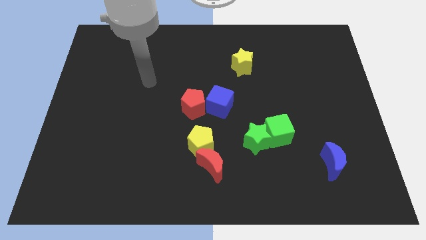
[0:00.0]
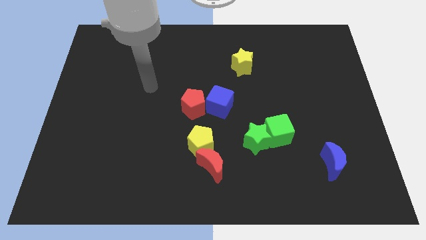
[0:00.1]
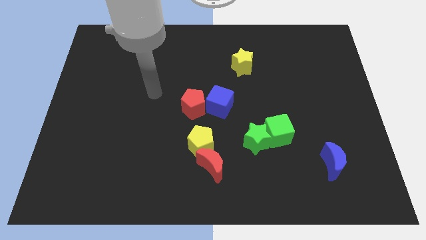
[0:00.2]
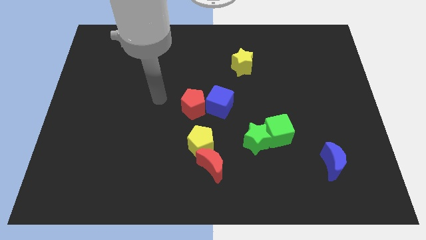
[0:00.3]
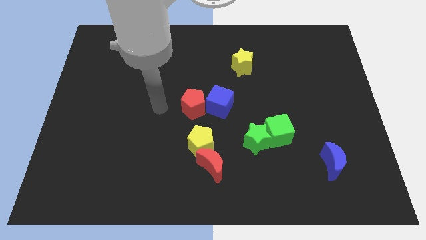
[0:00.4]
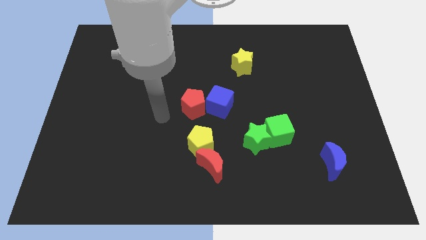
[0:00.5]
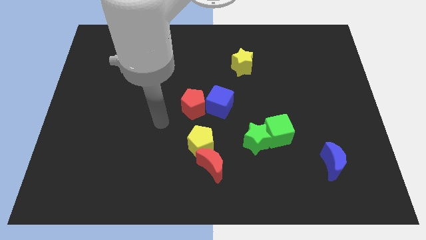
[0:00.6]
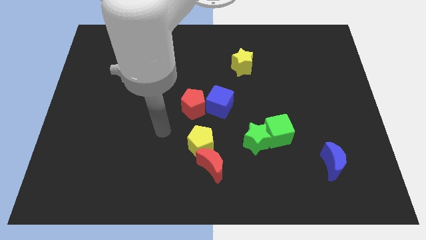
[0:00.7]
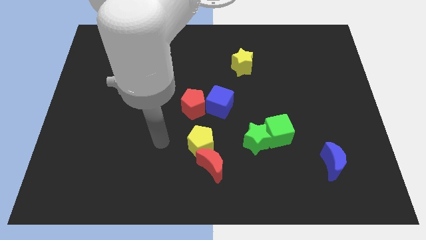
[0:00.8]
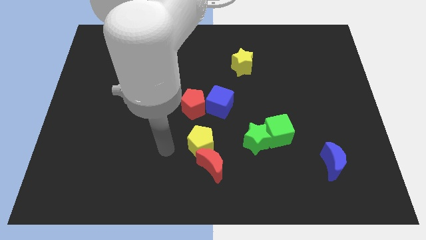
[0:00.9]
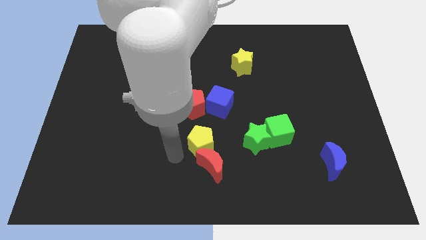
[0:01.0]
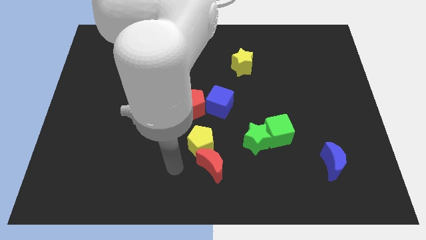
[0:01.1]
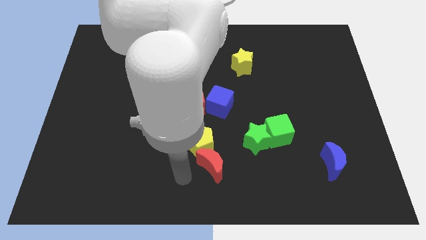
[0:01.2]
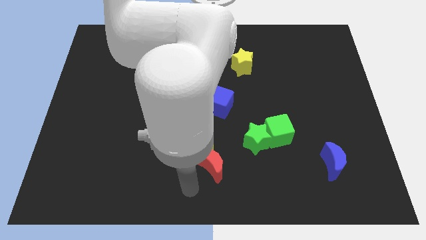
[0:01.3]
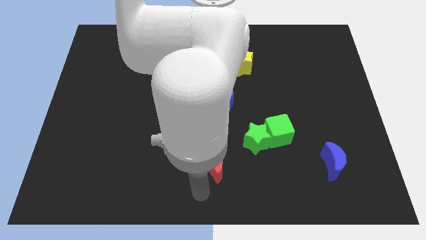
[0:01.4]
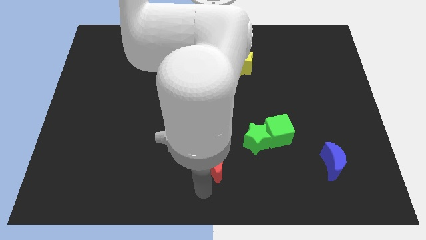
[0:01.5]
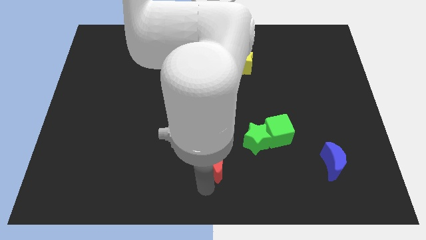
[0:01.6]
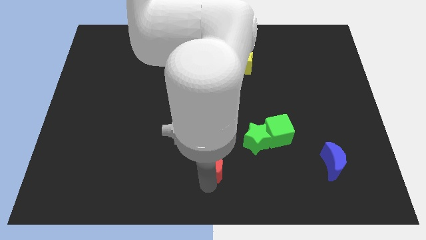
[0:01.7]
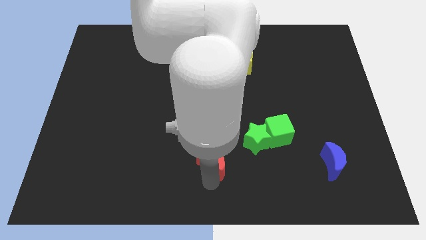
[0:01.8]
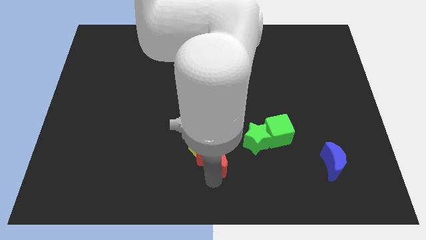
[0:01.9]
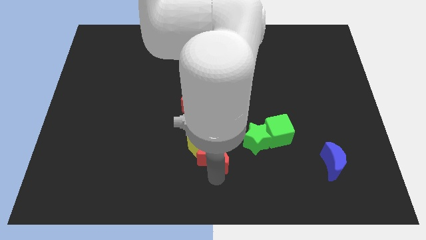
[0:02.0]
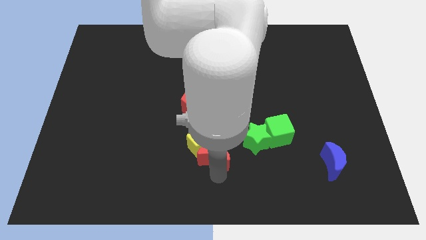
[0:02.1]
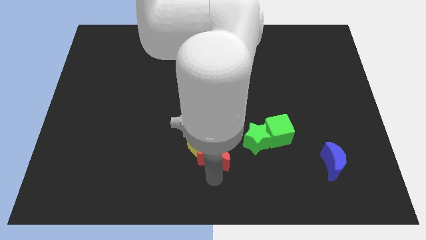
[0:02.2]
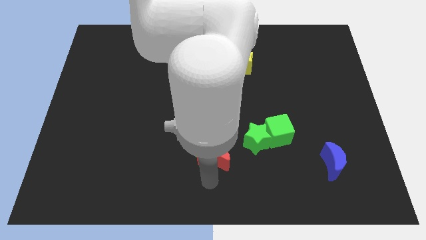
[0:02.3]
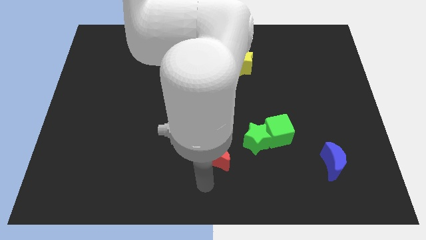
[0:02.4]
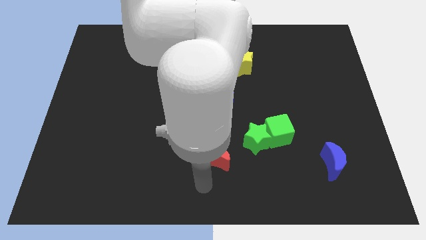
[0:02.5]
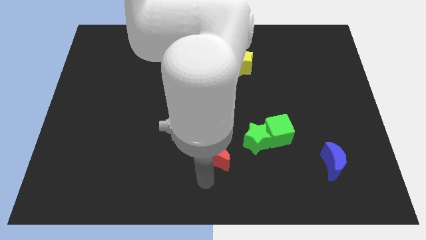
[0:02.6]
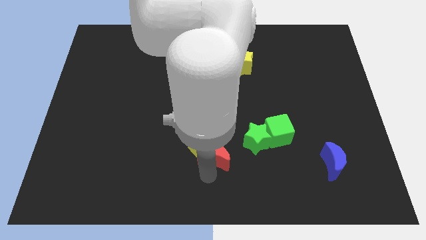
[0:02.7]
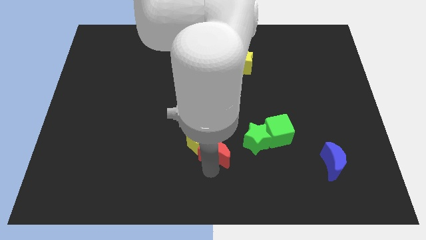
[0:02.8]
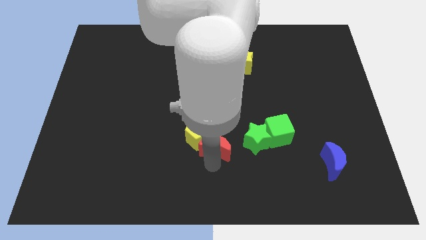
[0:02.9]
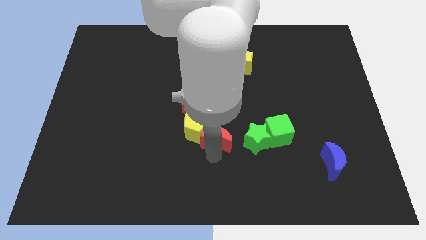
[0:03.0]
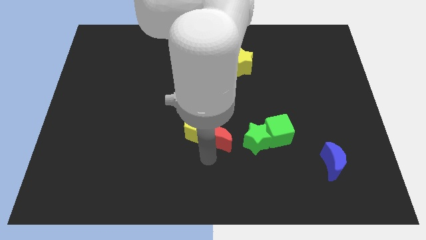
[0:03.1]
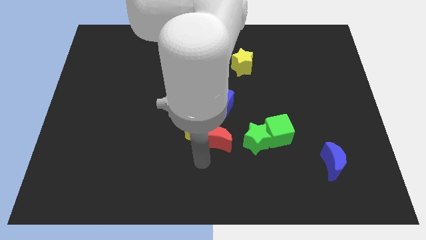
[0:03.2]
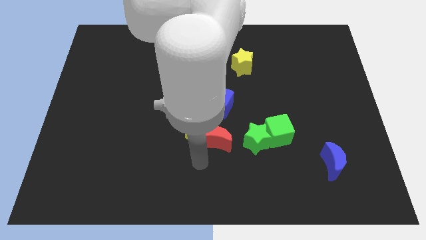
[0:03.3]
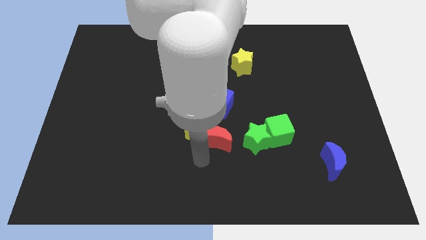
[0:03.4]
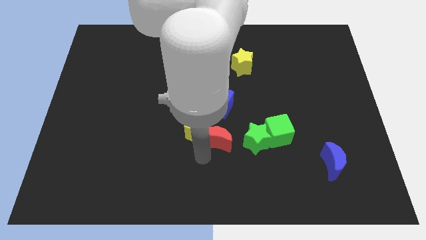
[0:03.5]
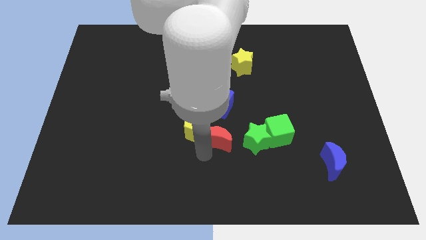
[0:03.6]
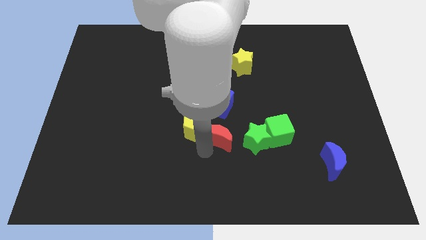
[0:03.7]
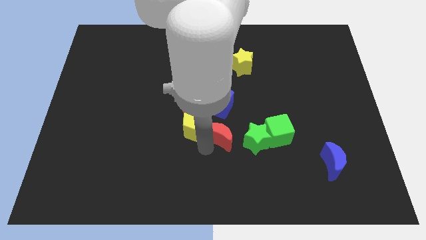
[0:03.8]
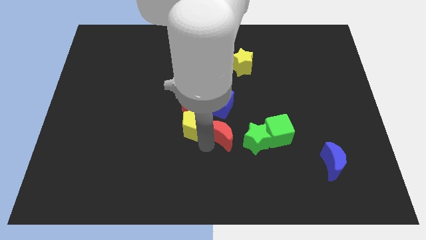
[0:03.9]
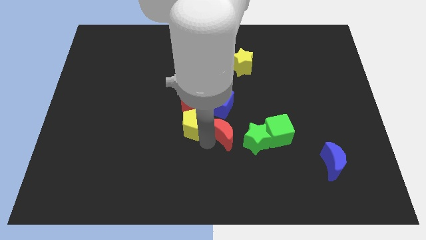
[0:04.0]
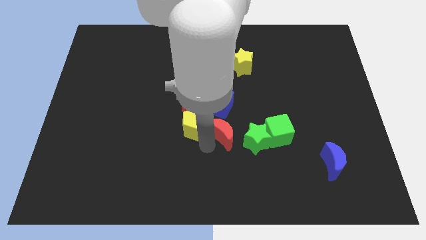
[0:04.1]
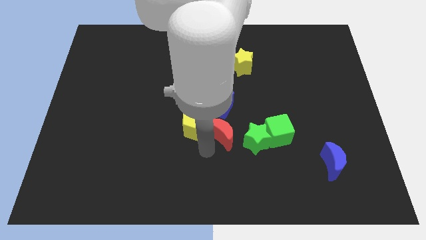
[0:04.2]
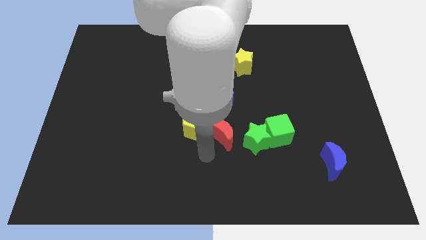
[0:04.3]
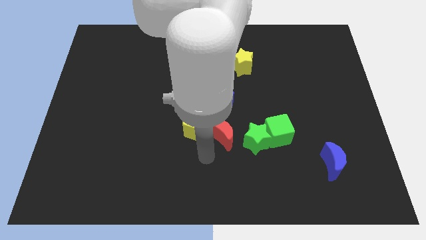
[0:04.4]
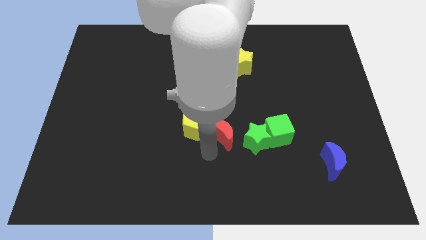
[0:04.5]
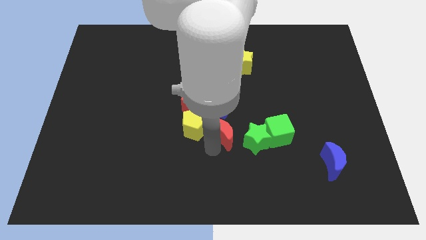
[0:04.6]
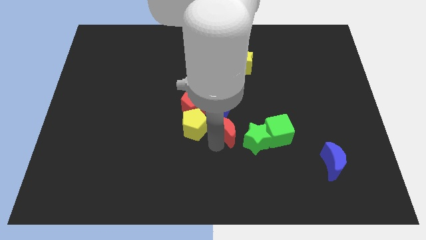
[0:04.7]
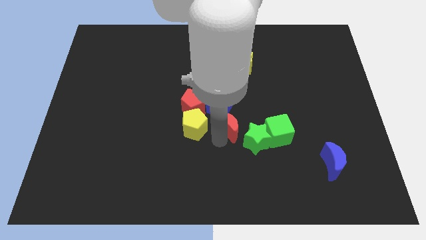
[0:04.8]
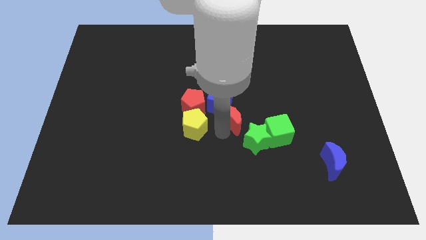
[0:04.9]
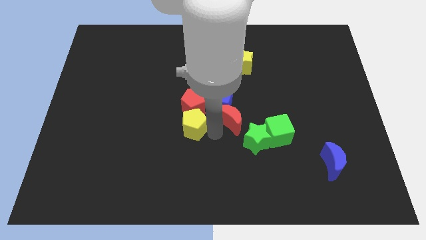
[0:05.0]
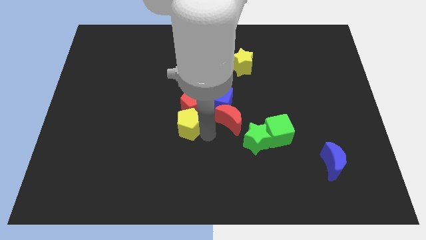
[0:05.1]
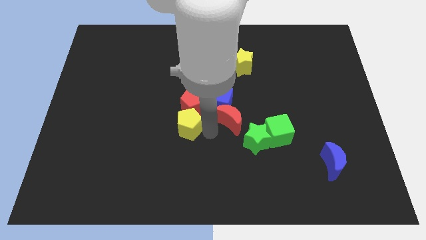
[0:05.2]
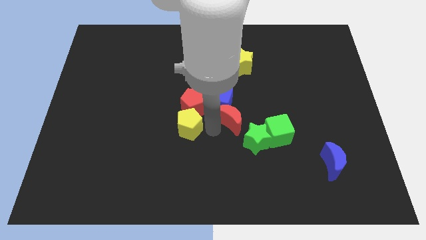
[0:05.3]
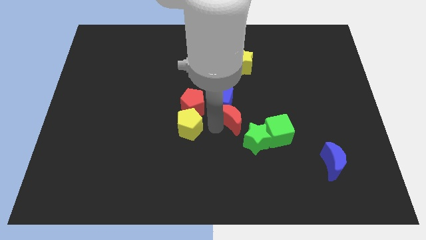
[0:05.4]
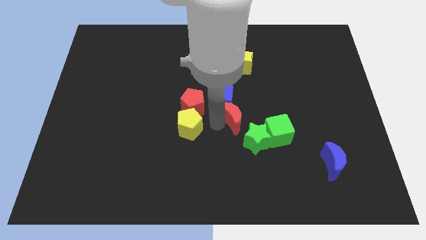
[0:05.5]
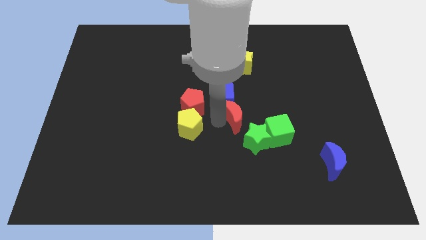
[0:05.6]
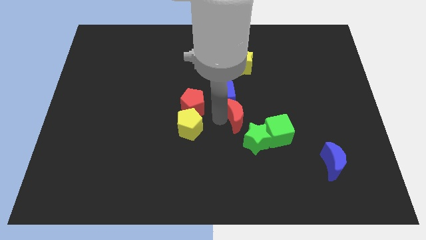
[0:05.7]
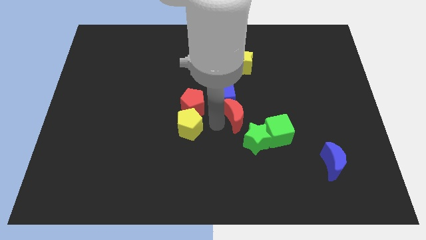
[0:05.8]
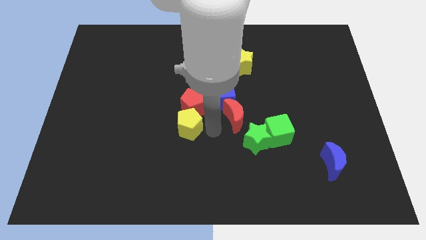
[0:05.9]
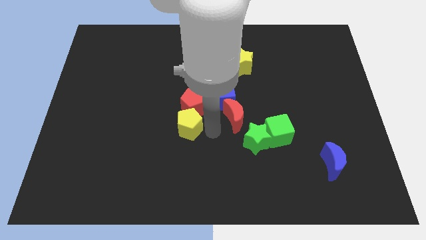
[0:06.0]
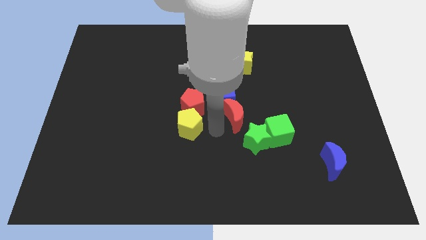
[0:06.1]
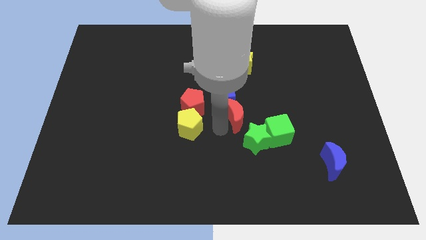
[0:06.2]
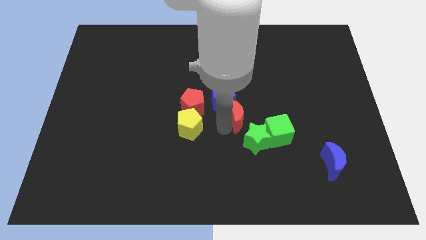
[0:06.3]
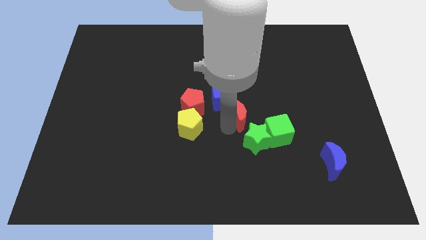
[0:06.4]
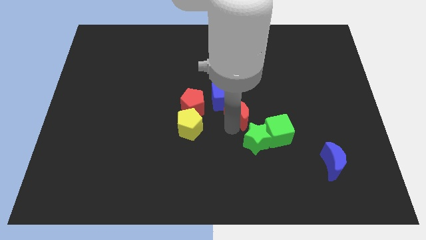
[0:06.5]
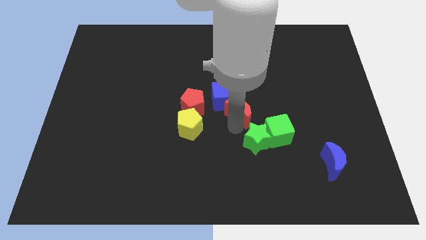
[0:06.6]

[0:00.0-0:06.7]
put the red moon just right of the blue cube

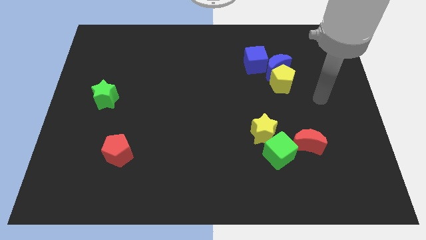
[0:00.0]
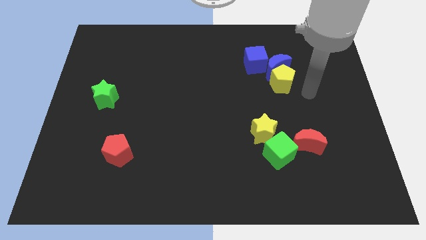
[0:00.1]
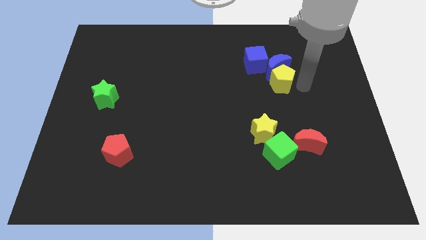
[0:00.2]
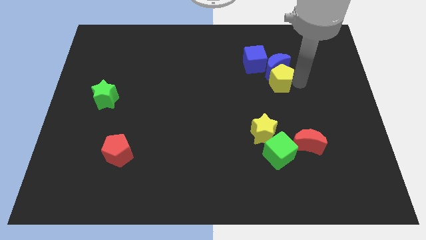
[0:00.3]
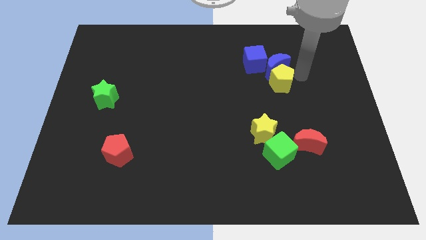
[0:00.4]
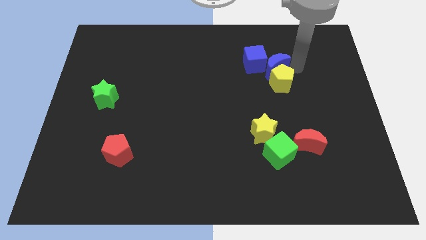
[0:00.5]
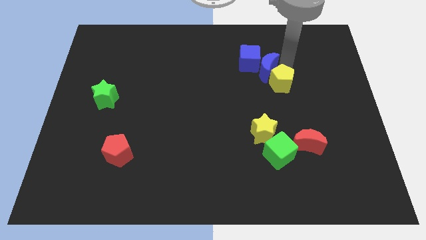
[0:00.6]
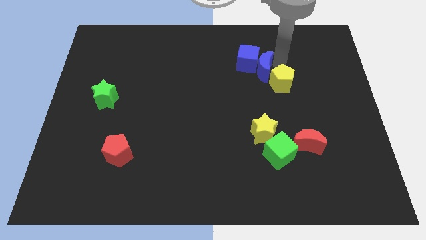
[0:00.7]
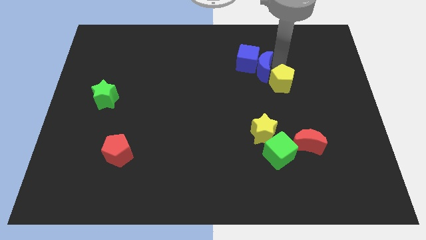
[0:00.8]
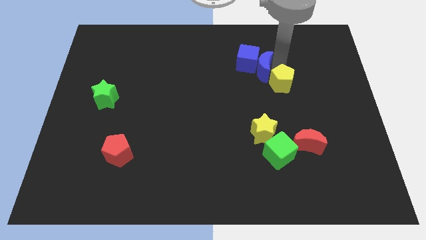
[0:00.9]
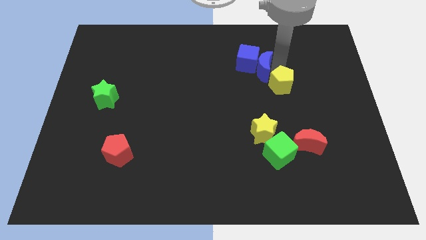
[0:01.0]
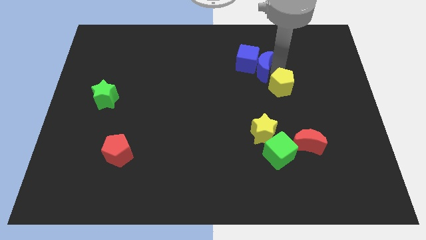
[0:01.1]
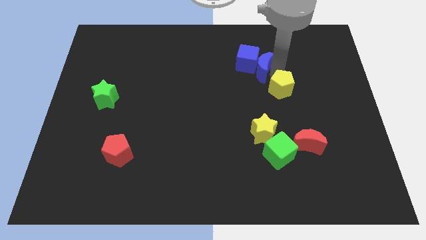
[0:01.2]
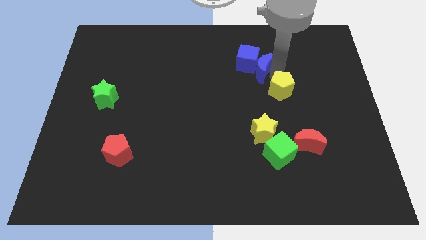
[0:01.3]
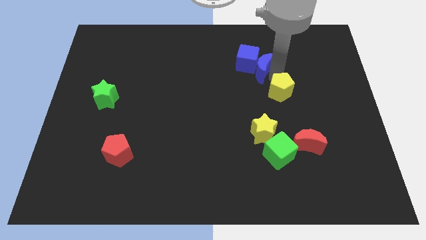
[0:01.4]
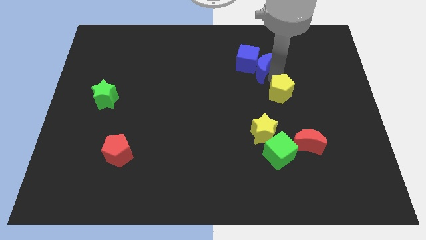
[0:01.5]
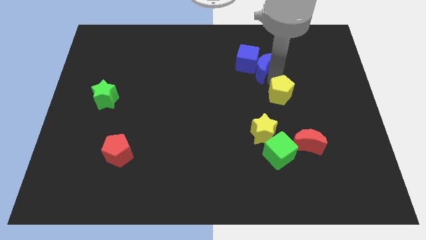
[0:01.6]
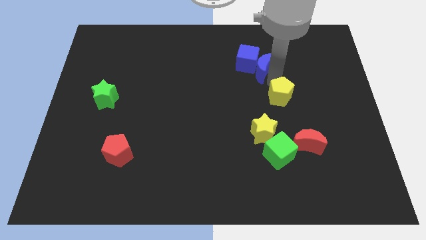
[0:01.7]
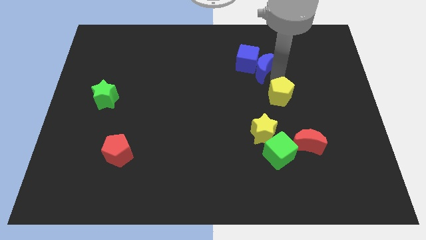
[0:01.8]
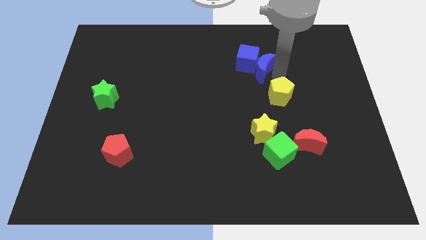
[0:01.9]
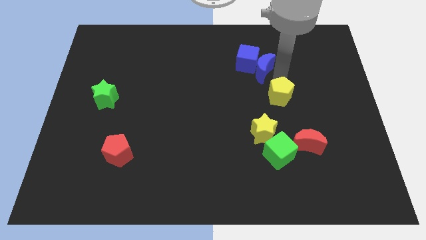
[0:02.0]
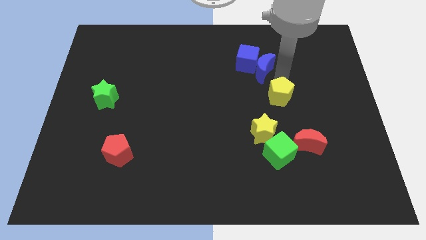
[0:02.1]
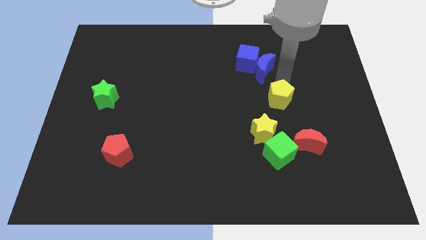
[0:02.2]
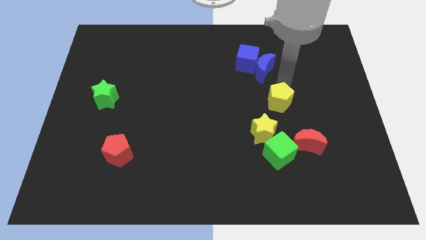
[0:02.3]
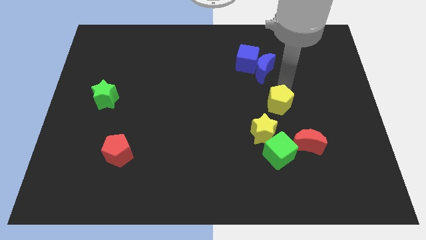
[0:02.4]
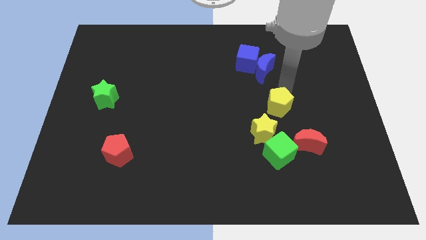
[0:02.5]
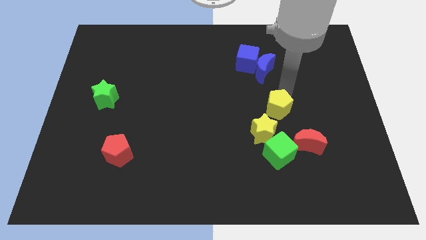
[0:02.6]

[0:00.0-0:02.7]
push the yellow pentagon diagonally up and to the left of the red moon
